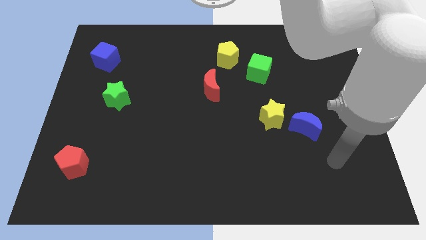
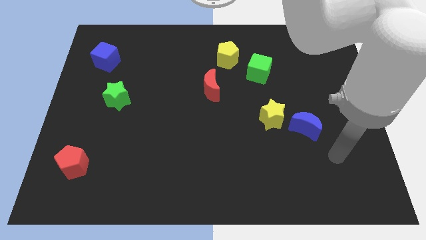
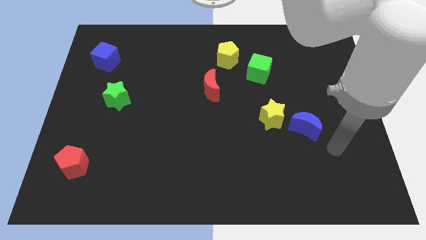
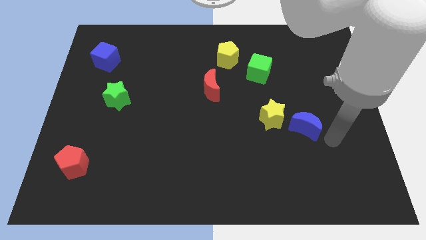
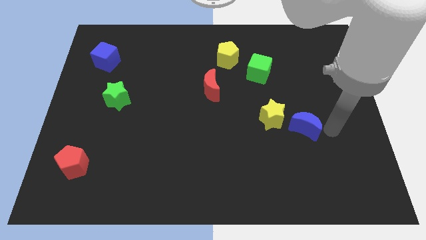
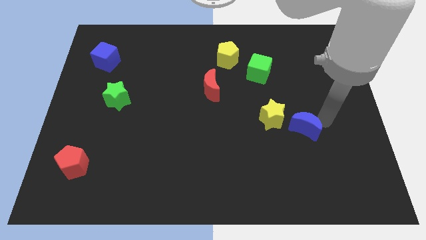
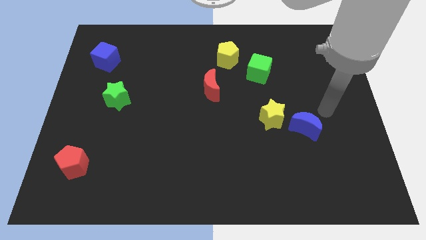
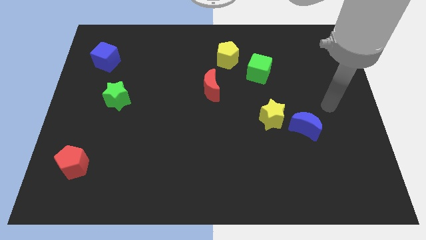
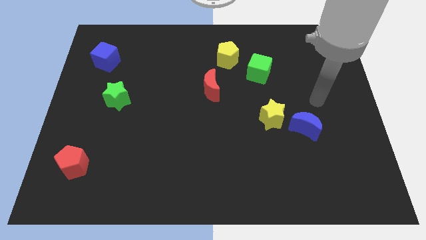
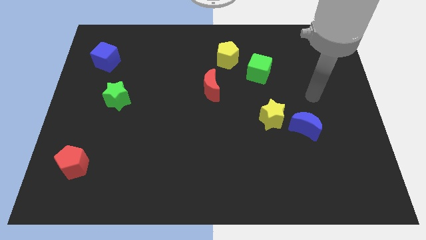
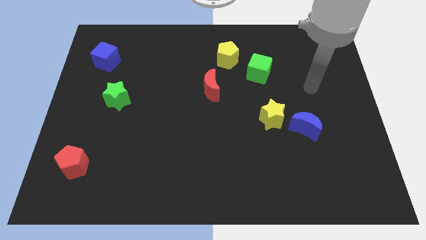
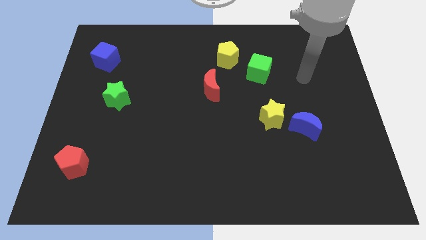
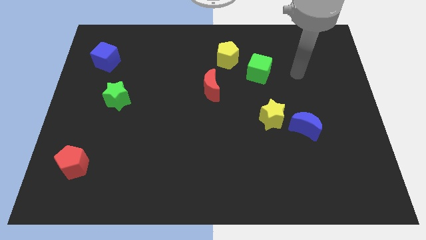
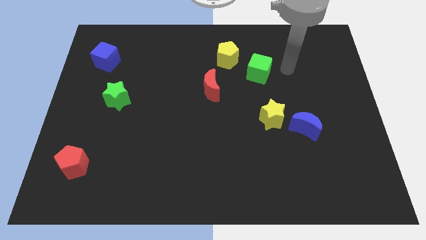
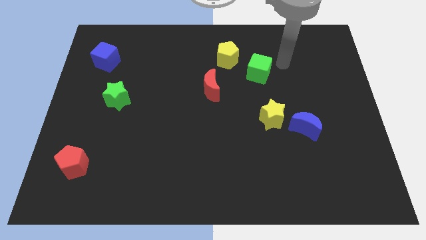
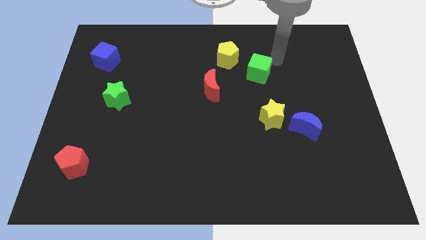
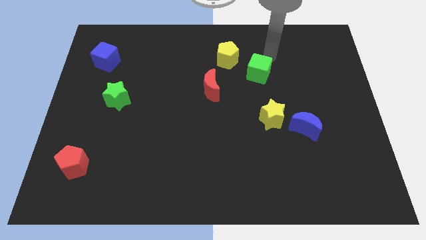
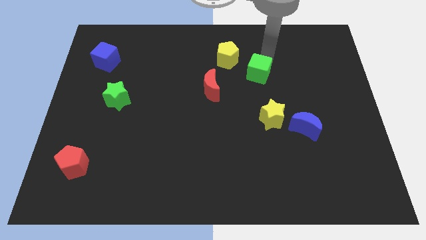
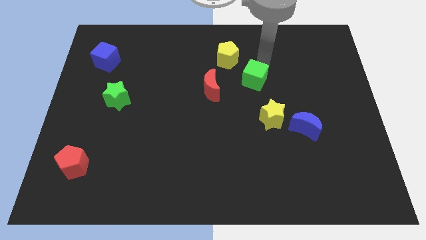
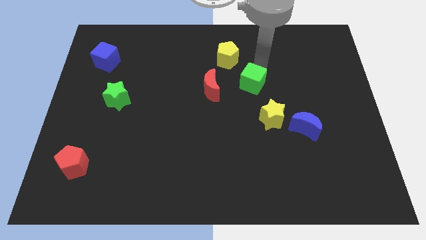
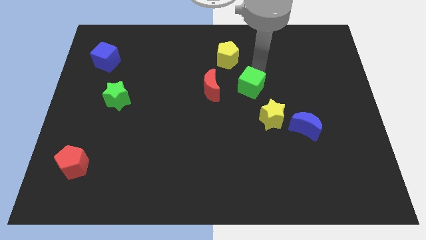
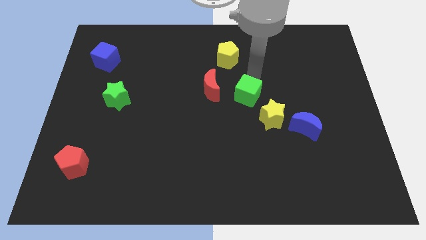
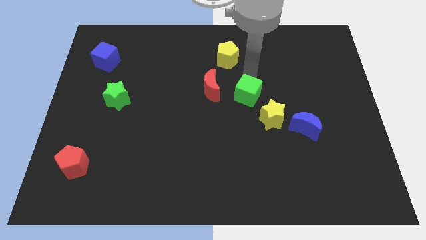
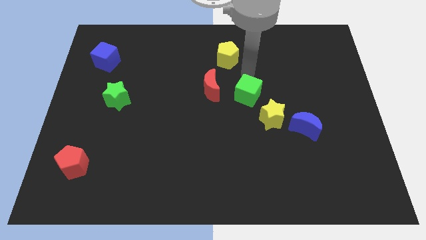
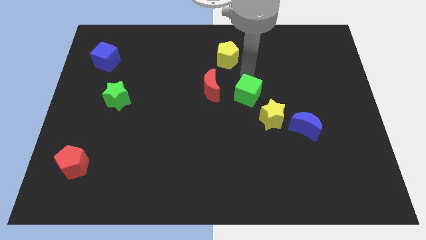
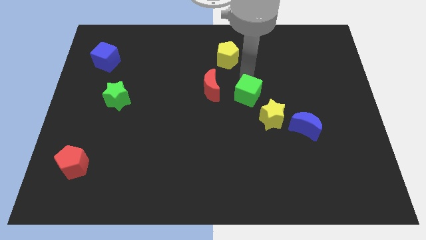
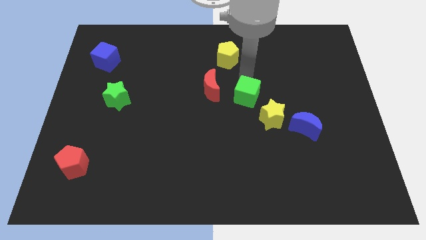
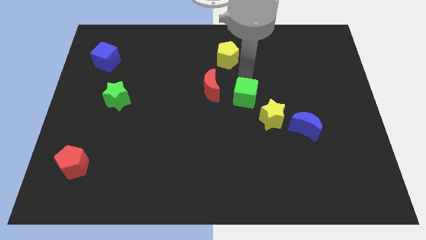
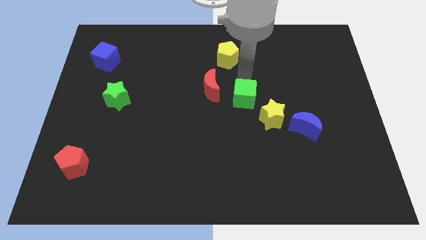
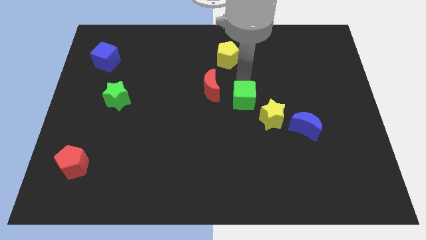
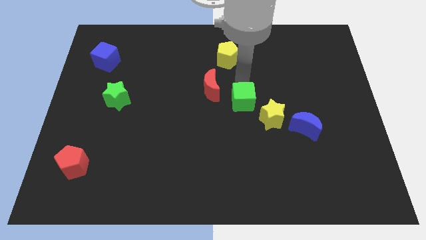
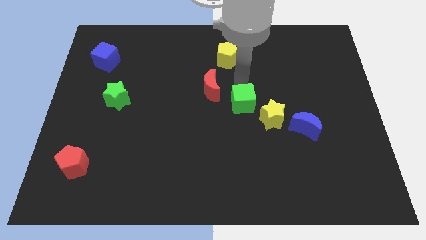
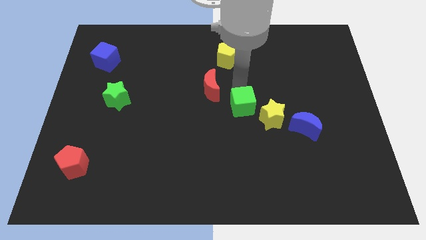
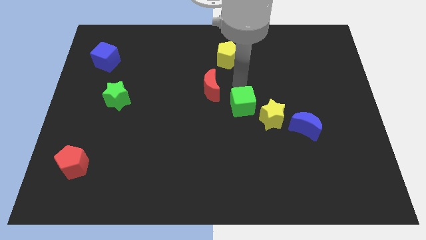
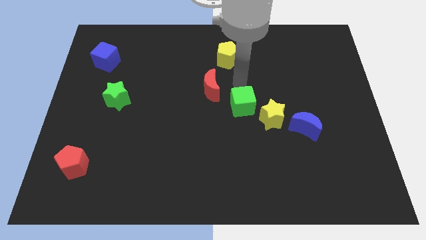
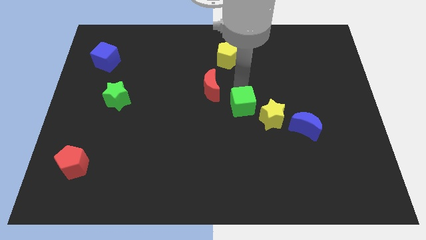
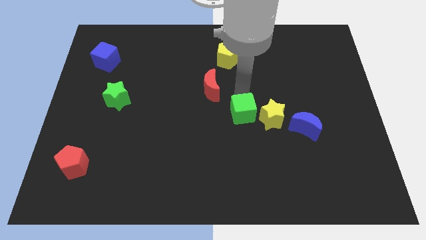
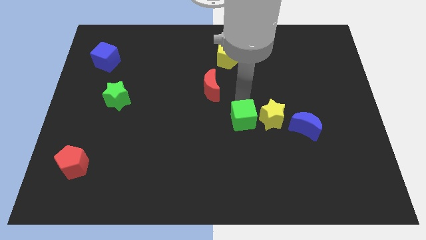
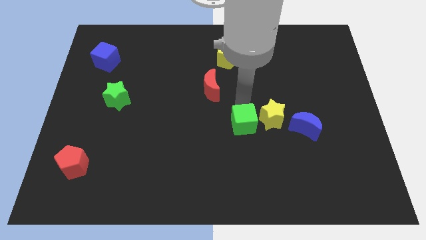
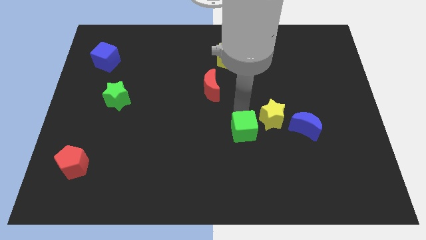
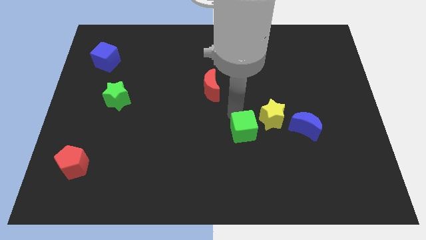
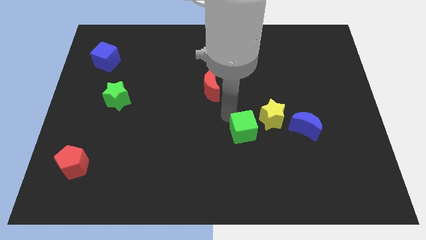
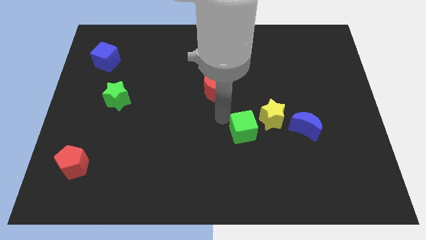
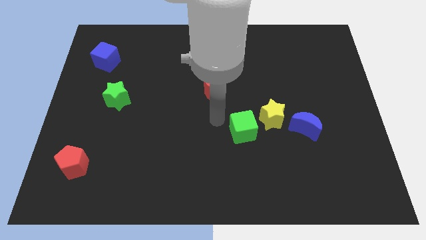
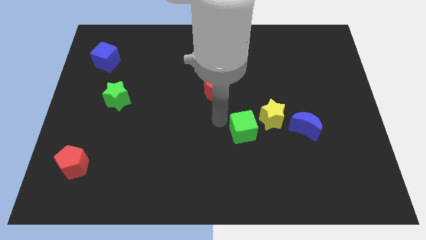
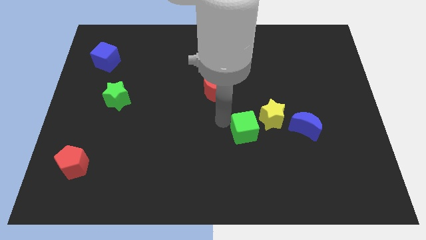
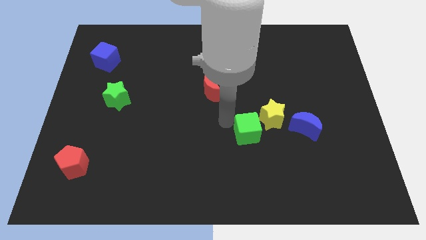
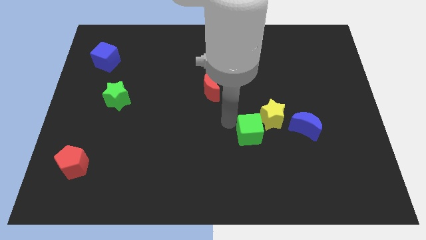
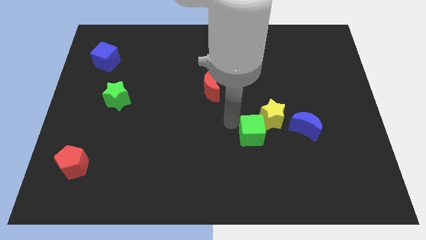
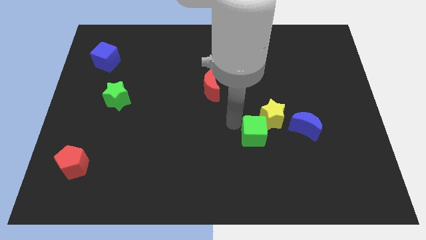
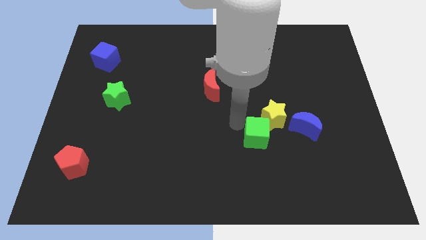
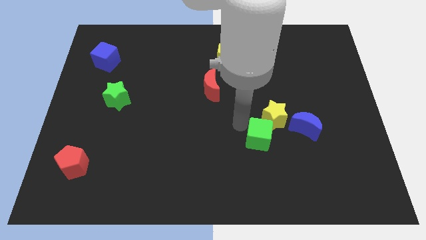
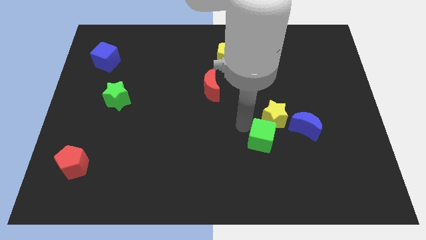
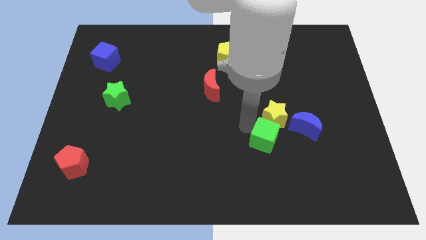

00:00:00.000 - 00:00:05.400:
put the green cube to the bottom left side of the blue moon
